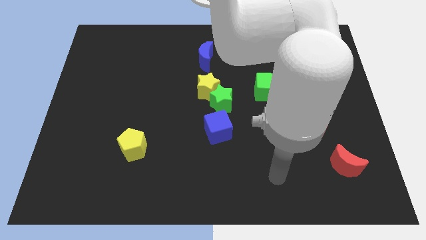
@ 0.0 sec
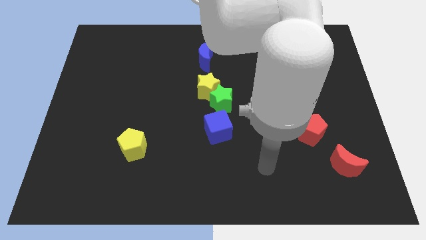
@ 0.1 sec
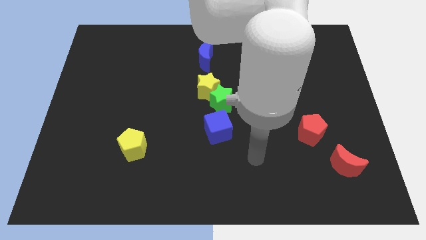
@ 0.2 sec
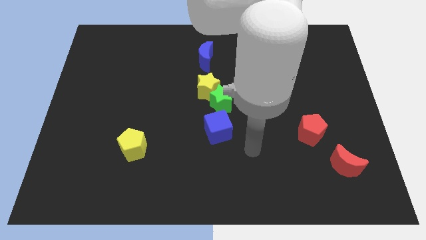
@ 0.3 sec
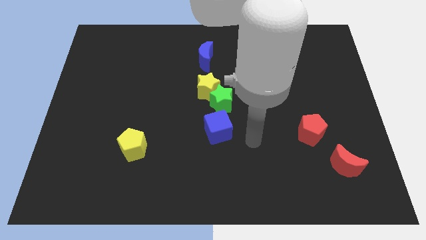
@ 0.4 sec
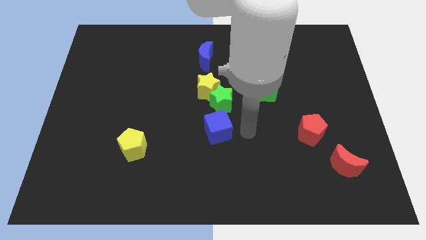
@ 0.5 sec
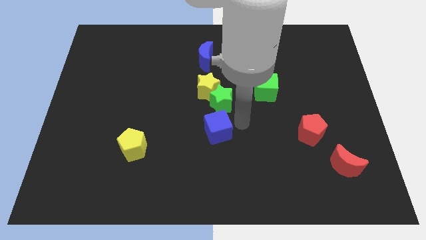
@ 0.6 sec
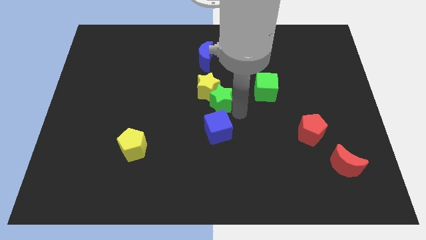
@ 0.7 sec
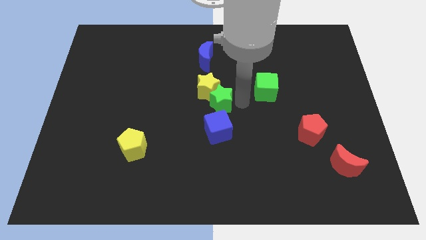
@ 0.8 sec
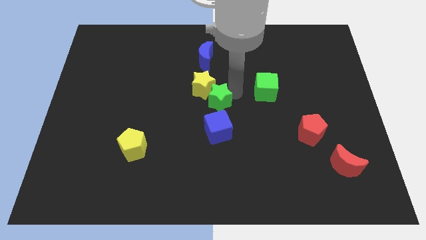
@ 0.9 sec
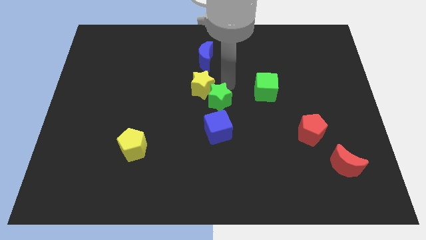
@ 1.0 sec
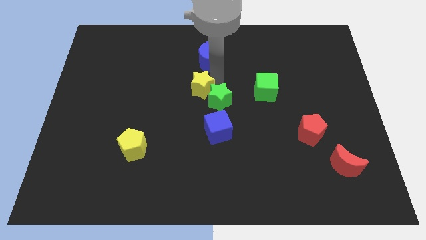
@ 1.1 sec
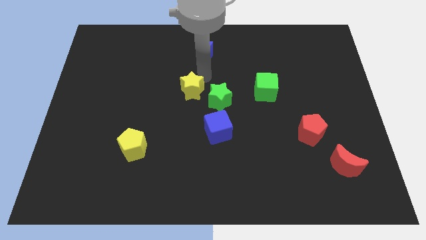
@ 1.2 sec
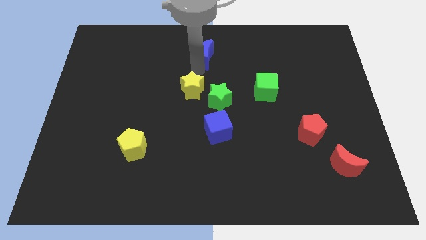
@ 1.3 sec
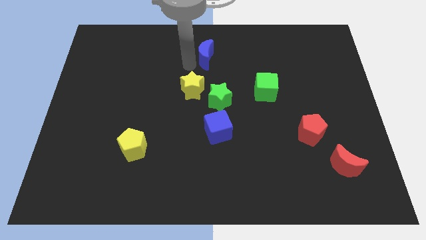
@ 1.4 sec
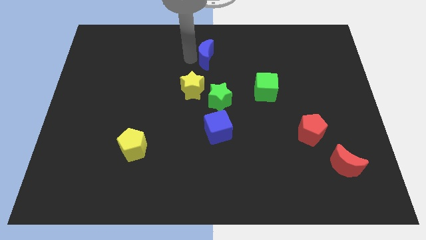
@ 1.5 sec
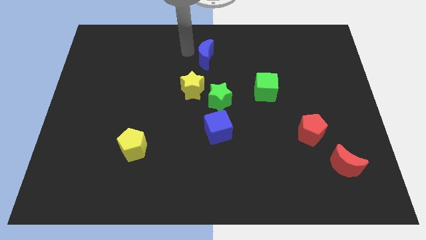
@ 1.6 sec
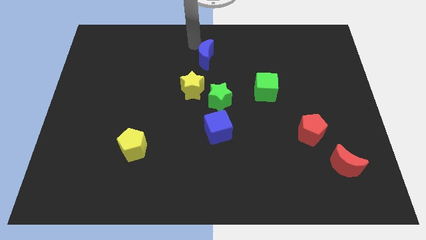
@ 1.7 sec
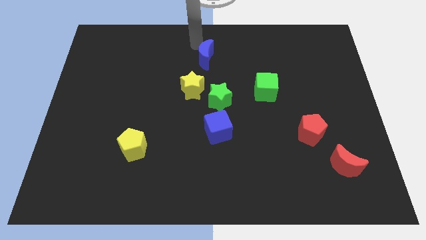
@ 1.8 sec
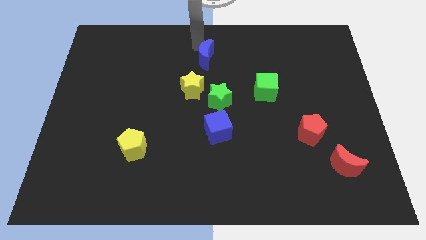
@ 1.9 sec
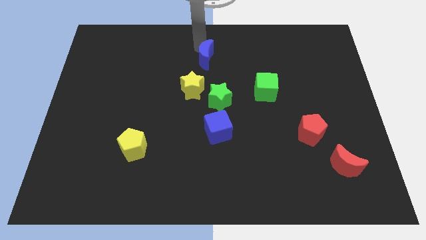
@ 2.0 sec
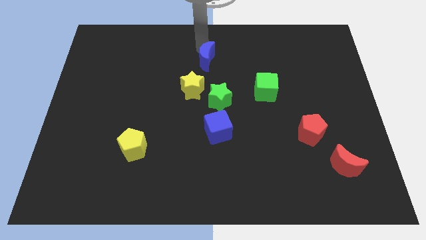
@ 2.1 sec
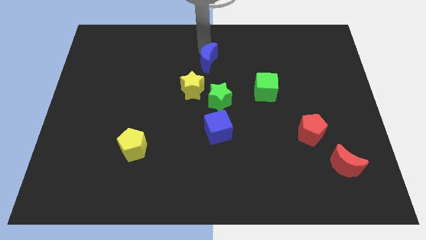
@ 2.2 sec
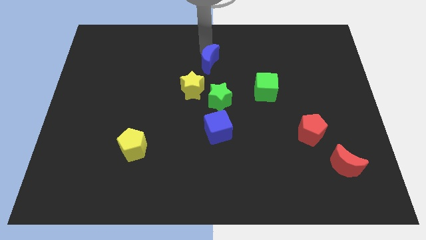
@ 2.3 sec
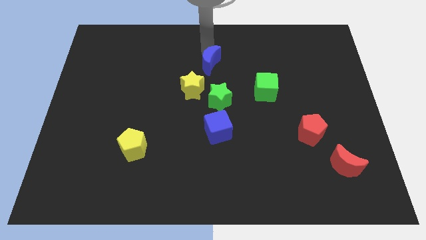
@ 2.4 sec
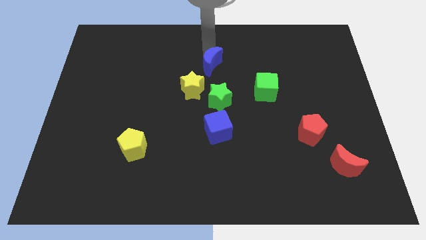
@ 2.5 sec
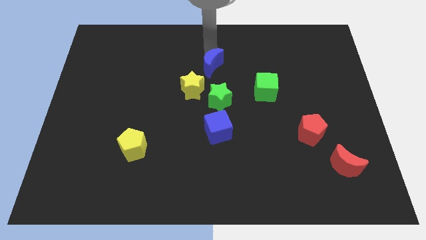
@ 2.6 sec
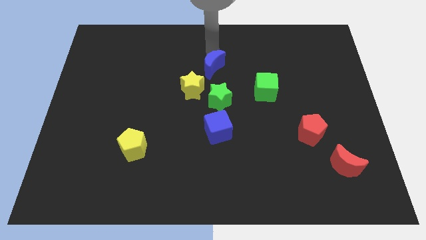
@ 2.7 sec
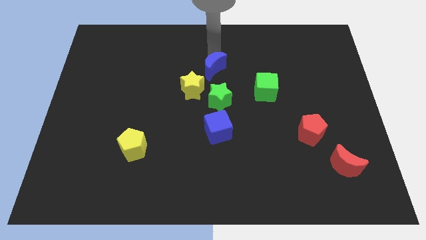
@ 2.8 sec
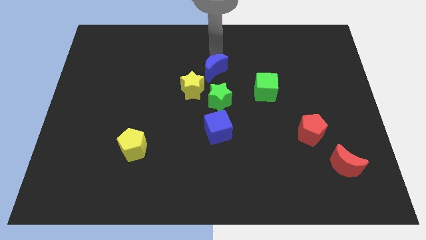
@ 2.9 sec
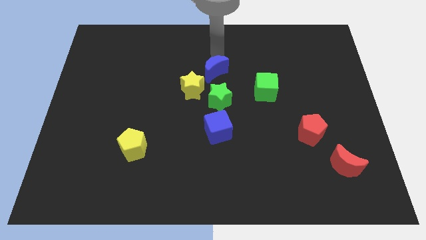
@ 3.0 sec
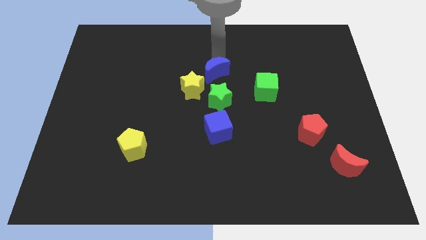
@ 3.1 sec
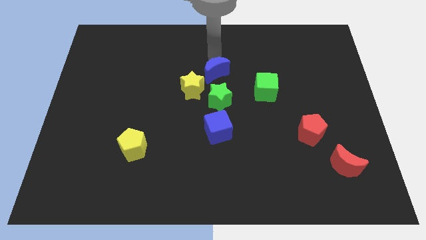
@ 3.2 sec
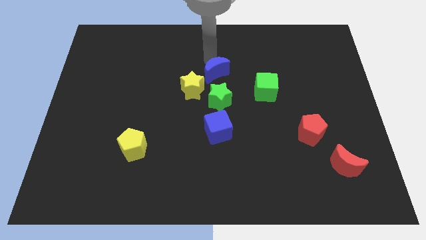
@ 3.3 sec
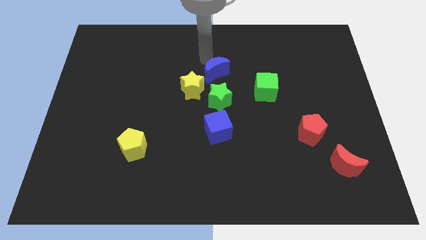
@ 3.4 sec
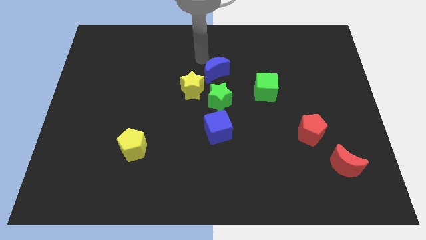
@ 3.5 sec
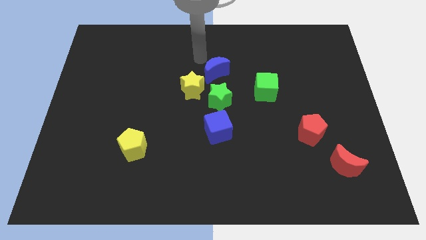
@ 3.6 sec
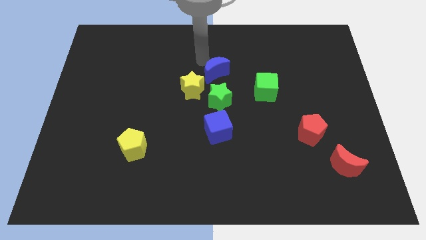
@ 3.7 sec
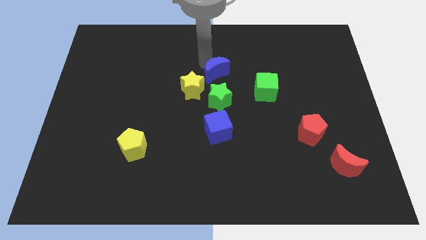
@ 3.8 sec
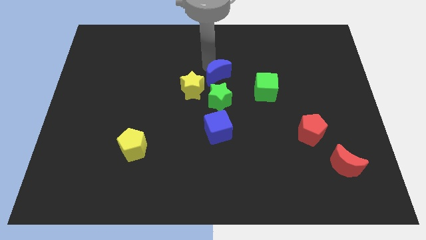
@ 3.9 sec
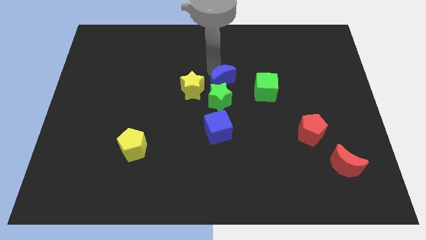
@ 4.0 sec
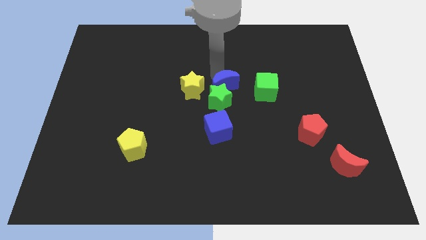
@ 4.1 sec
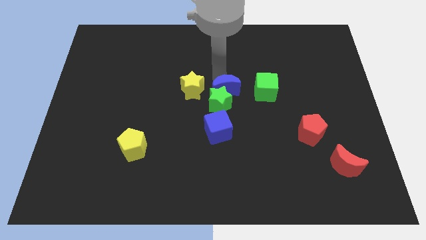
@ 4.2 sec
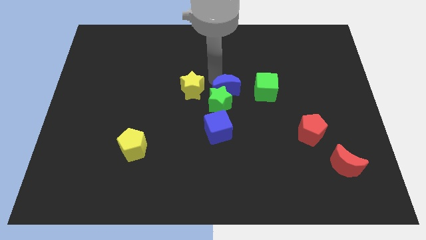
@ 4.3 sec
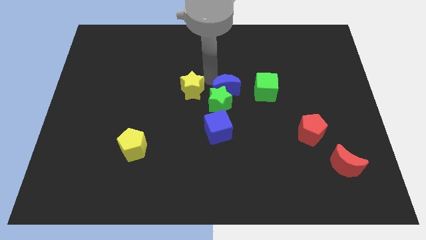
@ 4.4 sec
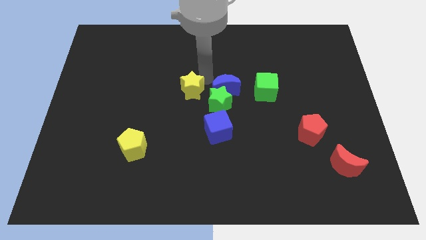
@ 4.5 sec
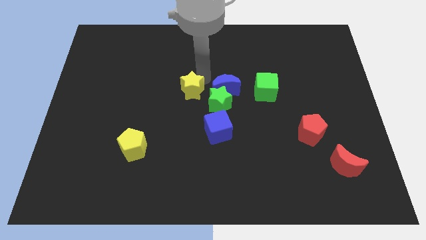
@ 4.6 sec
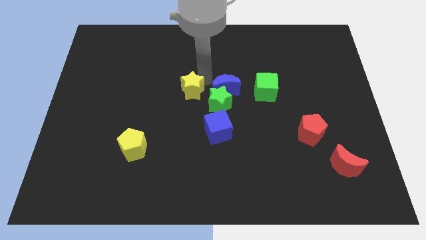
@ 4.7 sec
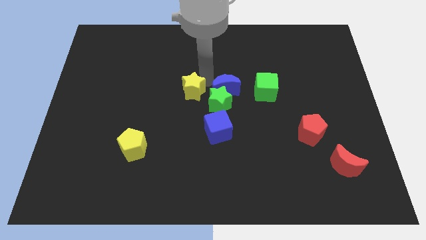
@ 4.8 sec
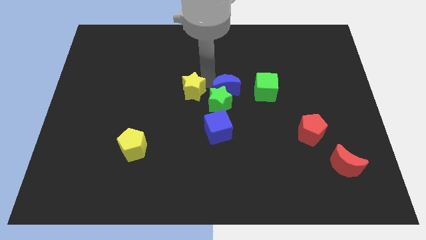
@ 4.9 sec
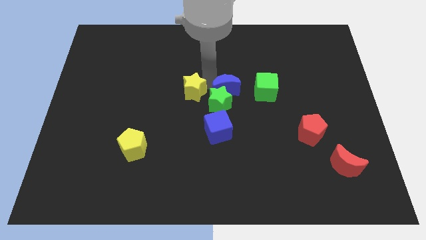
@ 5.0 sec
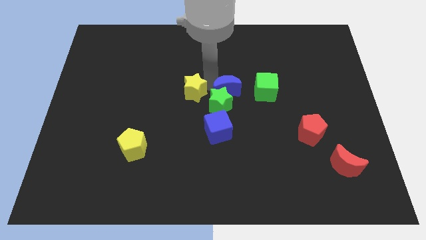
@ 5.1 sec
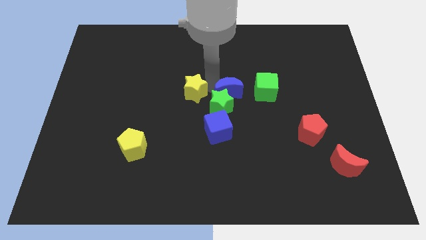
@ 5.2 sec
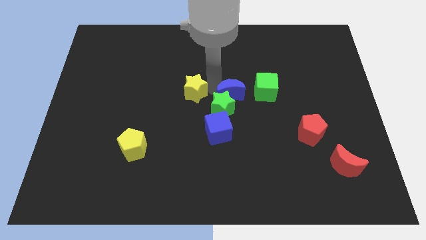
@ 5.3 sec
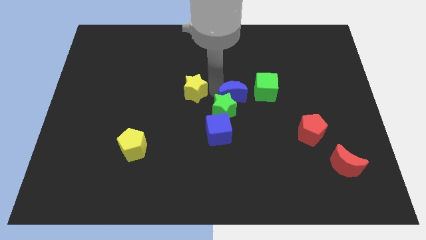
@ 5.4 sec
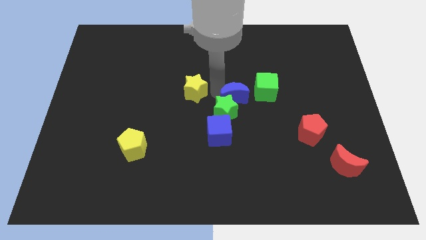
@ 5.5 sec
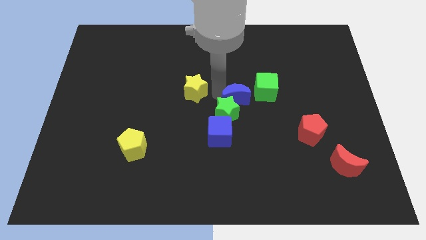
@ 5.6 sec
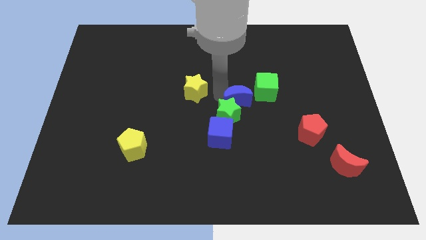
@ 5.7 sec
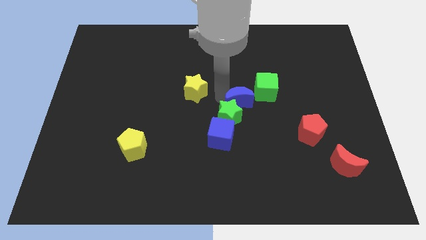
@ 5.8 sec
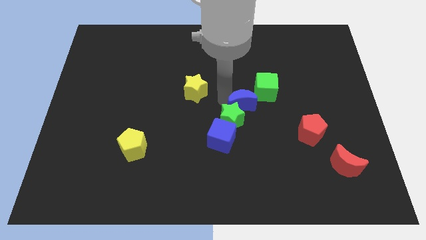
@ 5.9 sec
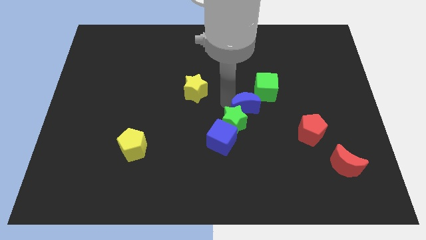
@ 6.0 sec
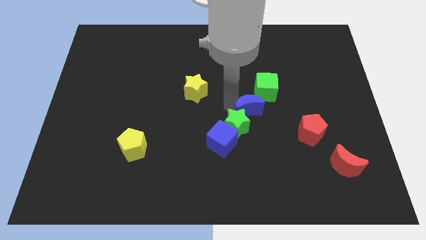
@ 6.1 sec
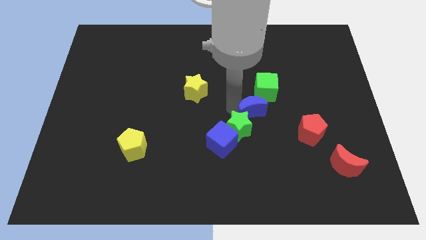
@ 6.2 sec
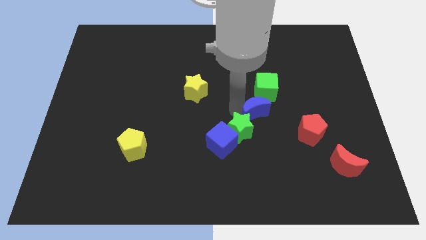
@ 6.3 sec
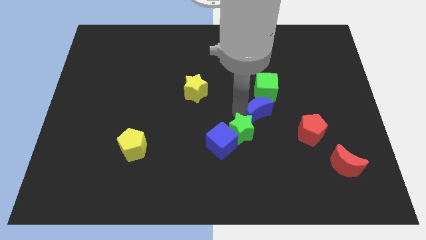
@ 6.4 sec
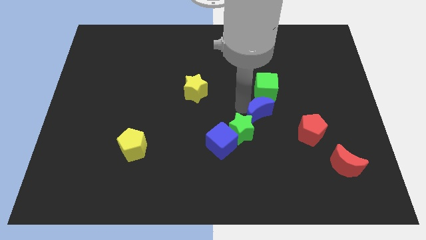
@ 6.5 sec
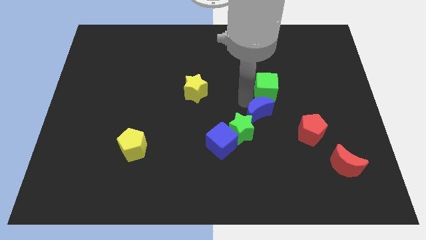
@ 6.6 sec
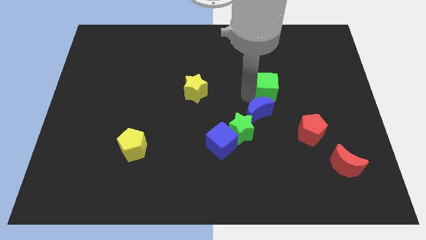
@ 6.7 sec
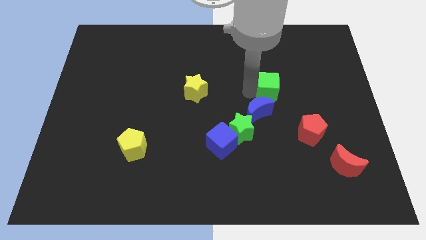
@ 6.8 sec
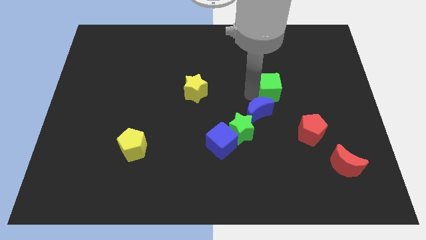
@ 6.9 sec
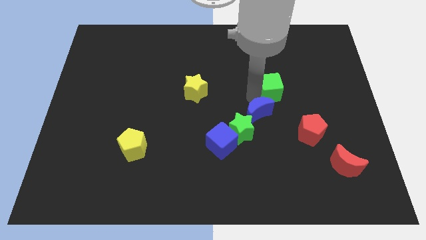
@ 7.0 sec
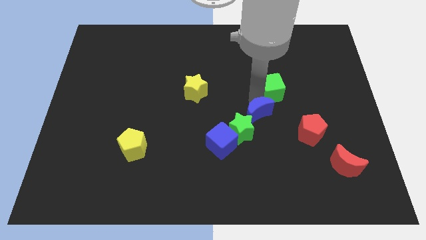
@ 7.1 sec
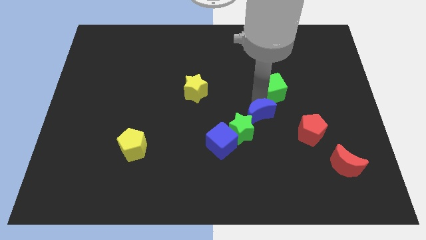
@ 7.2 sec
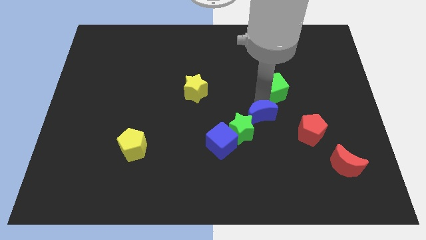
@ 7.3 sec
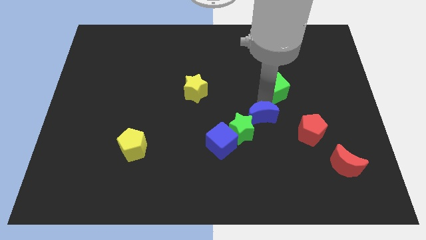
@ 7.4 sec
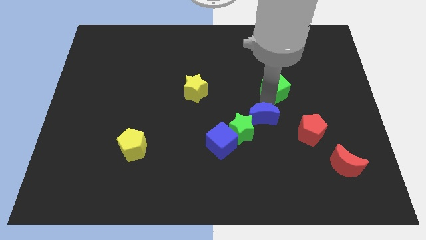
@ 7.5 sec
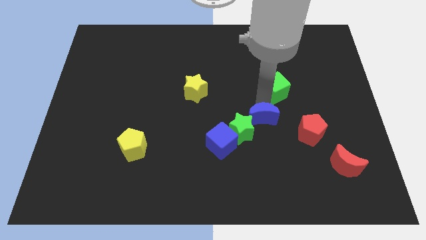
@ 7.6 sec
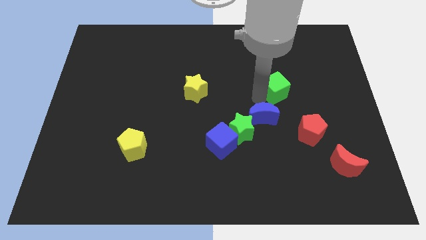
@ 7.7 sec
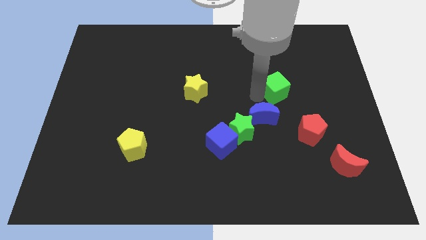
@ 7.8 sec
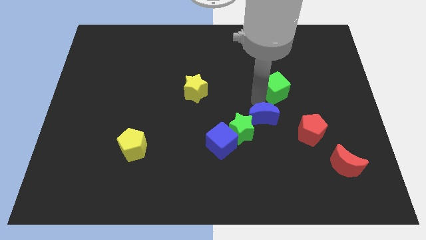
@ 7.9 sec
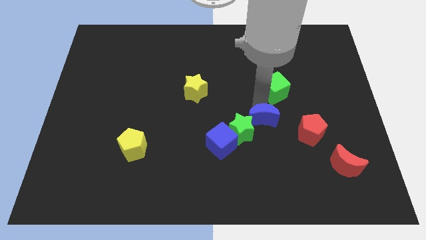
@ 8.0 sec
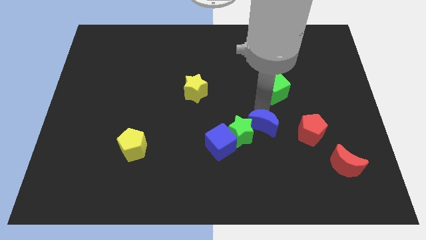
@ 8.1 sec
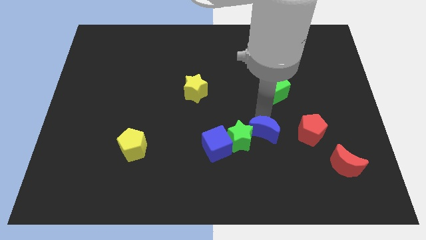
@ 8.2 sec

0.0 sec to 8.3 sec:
move the blue moon right of the blue cube
